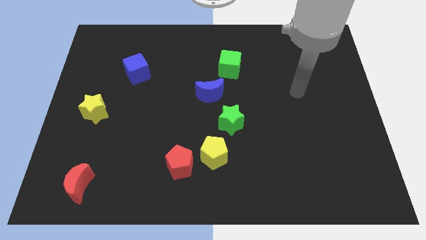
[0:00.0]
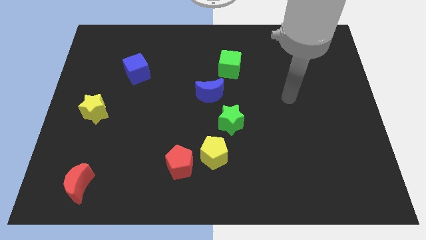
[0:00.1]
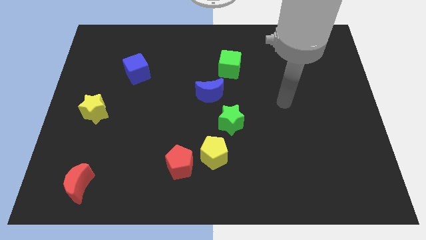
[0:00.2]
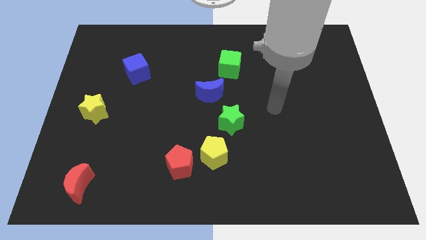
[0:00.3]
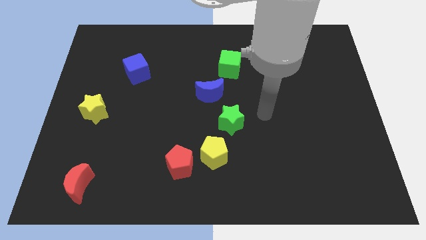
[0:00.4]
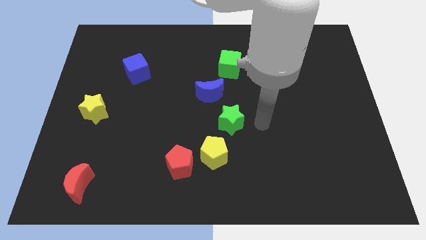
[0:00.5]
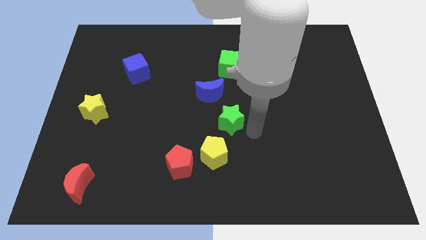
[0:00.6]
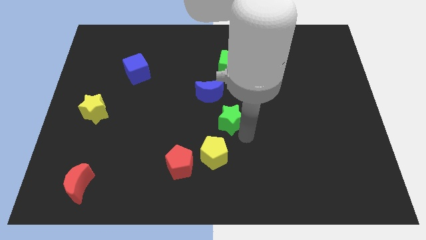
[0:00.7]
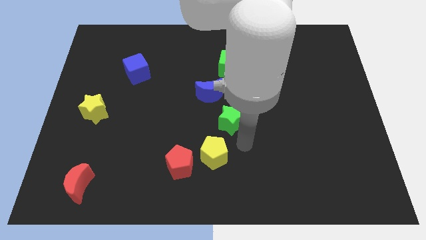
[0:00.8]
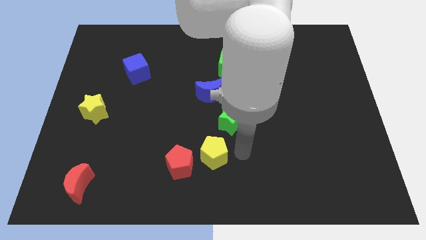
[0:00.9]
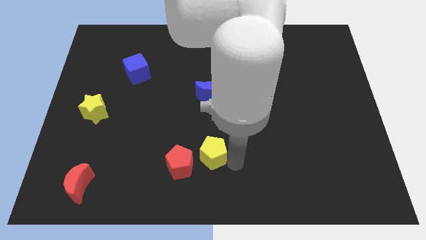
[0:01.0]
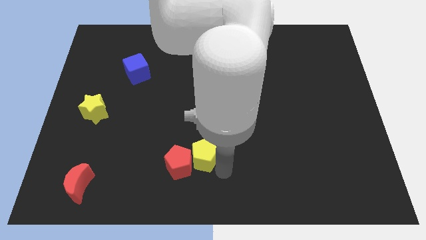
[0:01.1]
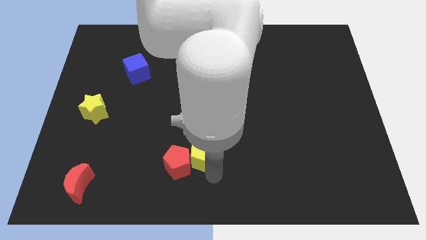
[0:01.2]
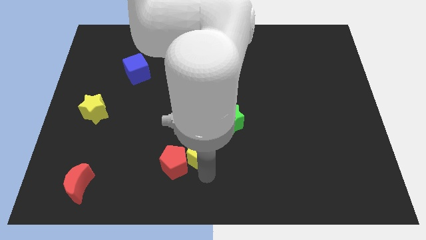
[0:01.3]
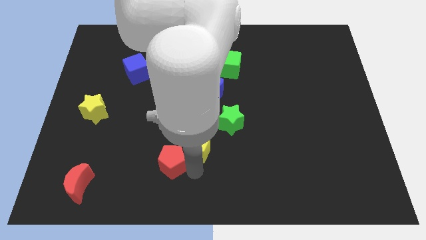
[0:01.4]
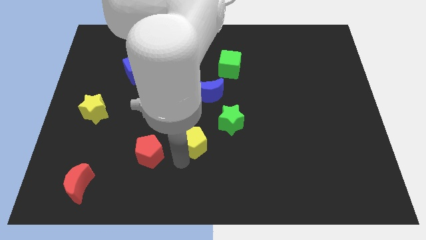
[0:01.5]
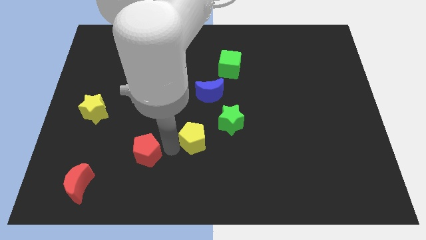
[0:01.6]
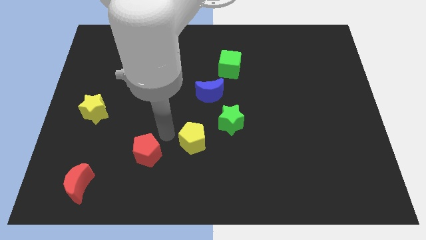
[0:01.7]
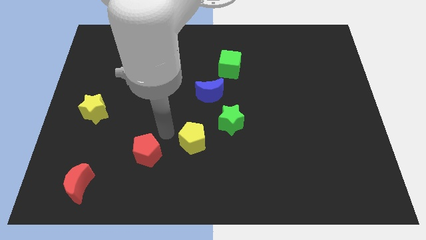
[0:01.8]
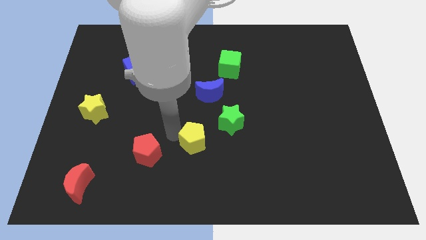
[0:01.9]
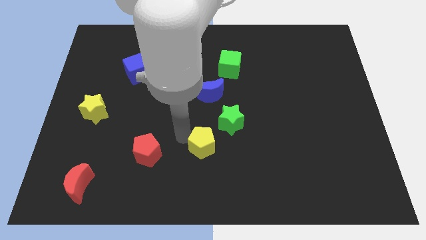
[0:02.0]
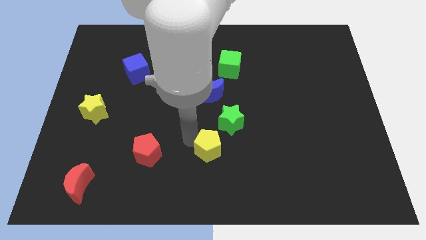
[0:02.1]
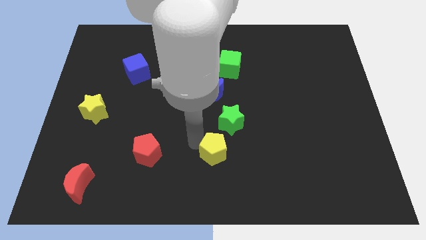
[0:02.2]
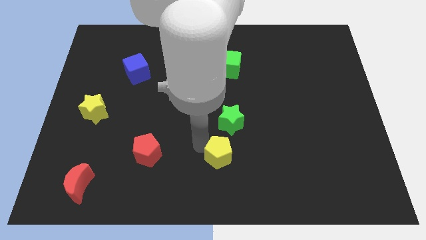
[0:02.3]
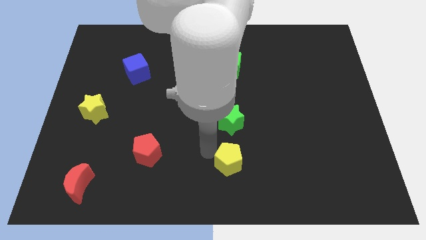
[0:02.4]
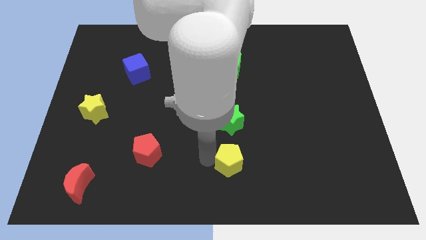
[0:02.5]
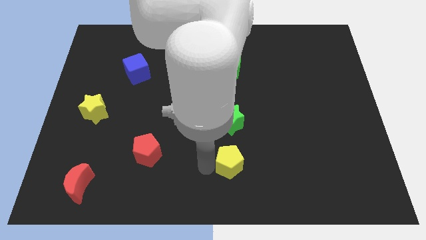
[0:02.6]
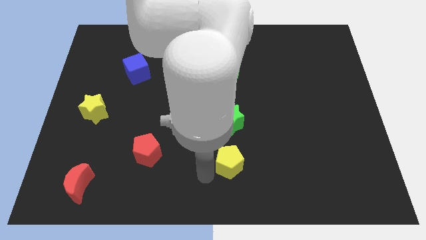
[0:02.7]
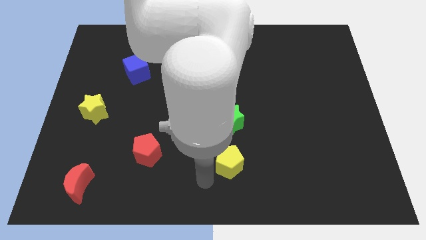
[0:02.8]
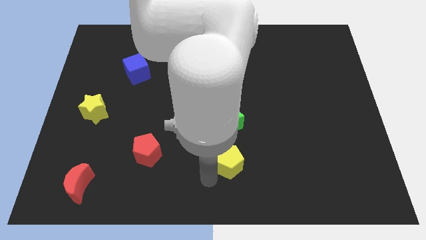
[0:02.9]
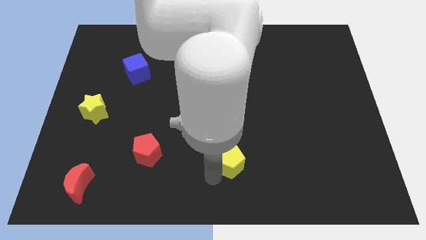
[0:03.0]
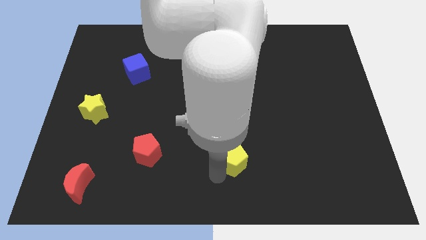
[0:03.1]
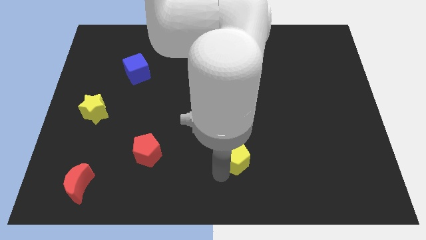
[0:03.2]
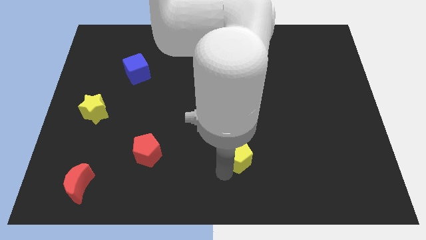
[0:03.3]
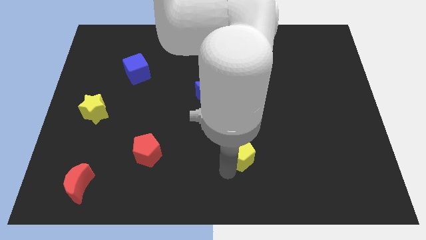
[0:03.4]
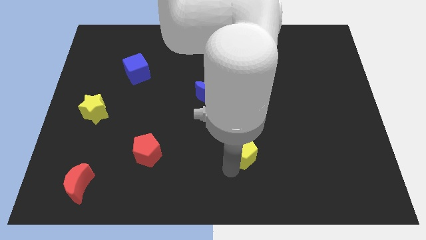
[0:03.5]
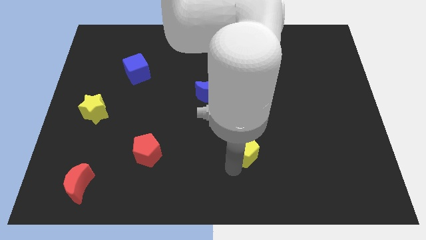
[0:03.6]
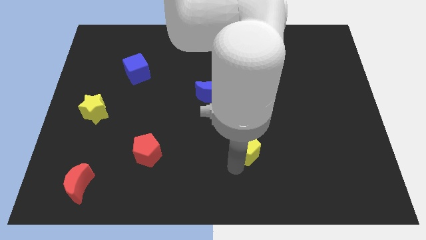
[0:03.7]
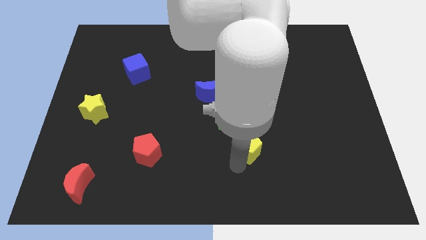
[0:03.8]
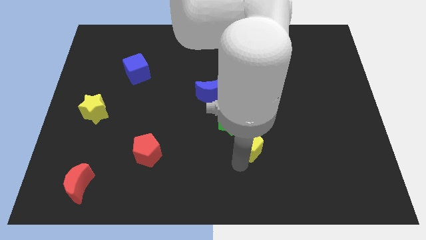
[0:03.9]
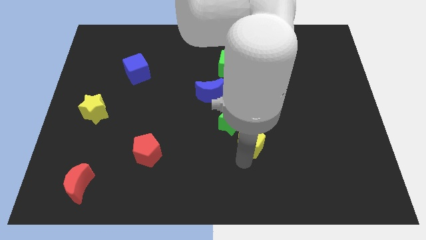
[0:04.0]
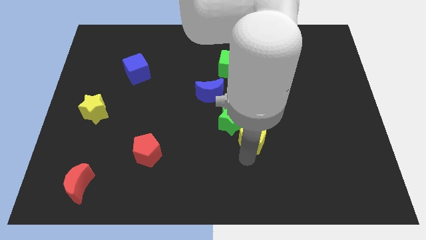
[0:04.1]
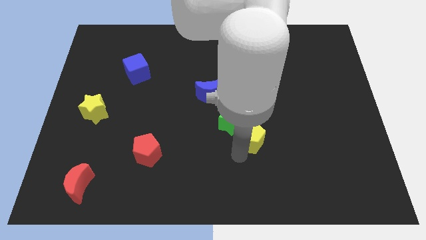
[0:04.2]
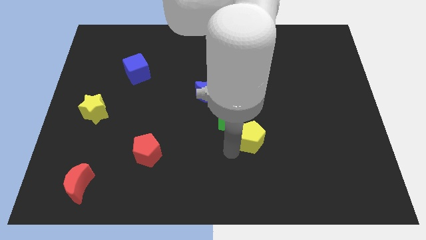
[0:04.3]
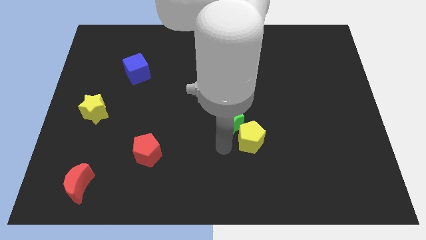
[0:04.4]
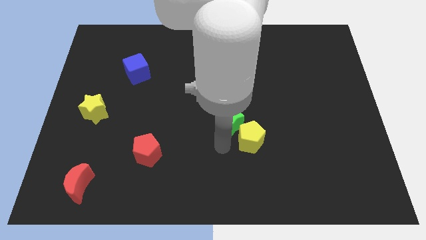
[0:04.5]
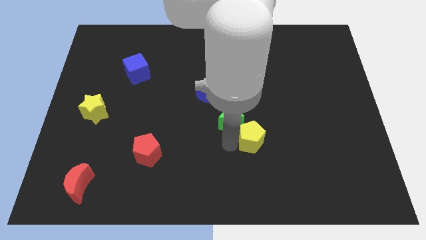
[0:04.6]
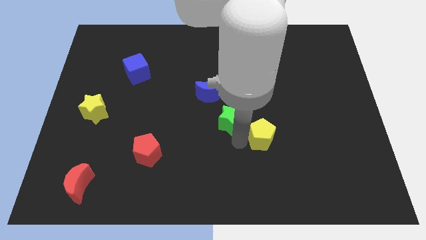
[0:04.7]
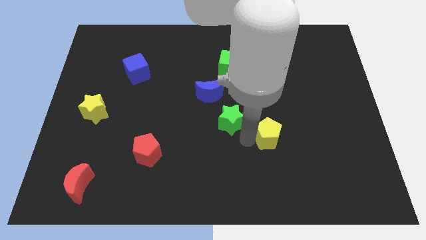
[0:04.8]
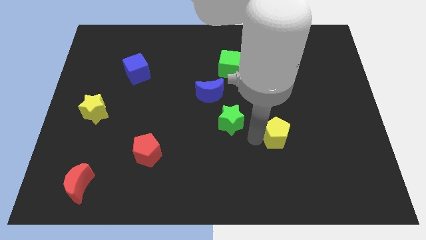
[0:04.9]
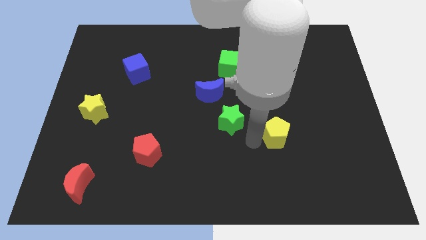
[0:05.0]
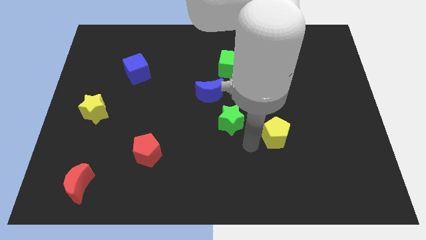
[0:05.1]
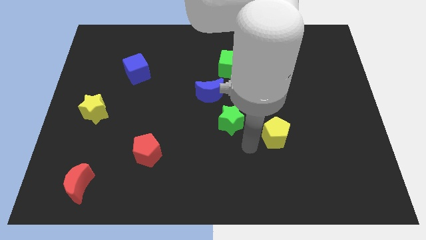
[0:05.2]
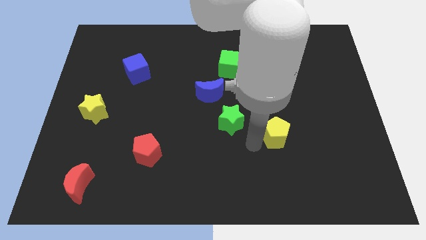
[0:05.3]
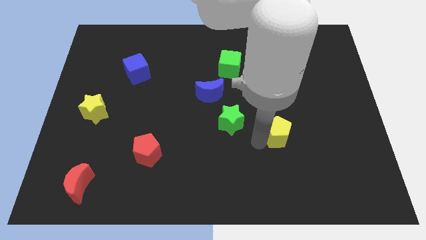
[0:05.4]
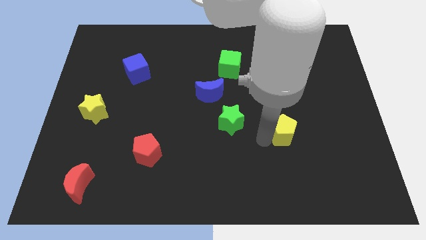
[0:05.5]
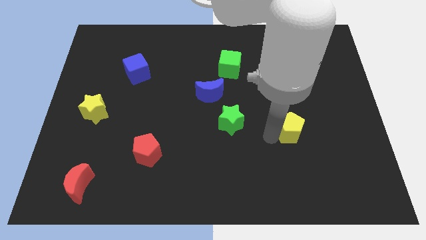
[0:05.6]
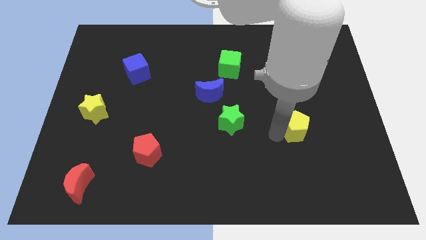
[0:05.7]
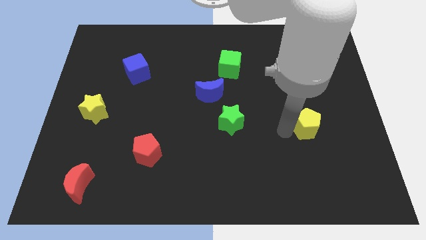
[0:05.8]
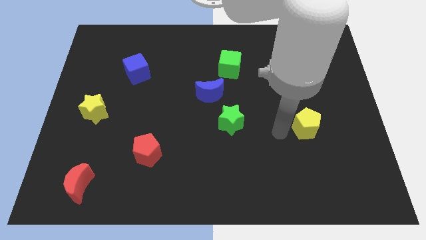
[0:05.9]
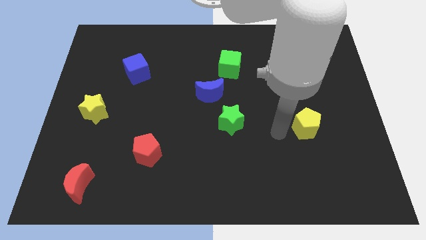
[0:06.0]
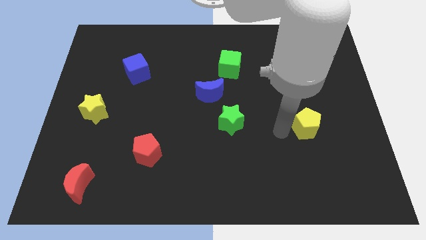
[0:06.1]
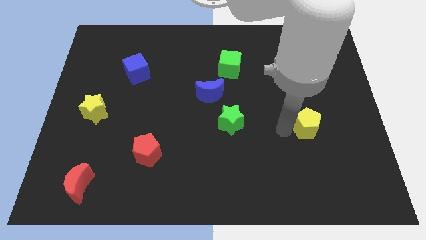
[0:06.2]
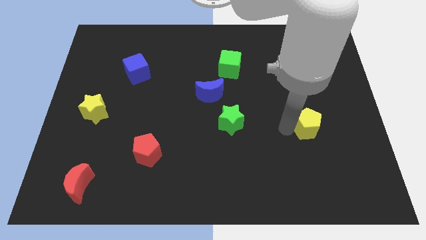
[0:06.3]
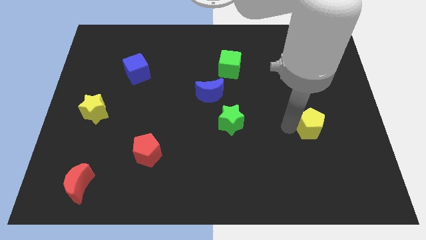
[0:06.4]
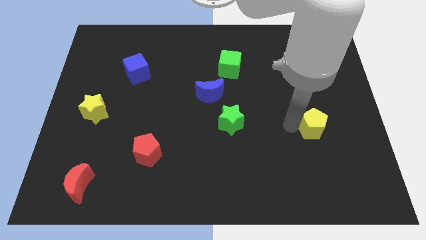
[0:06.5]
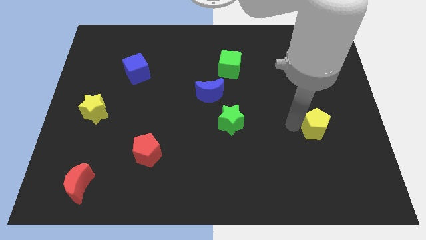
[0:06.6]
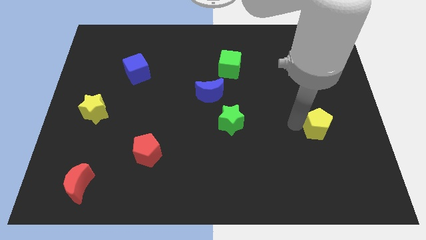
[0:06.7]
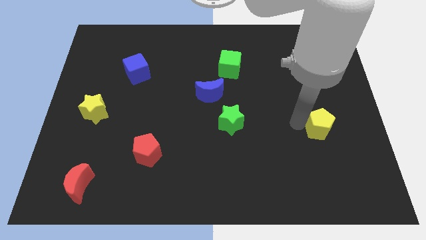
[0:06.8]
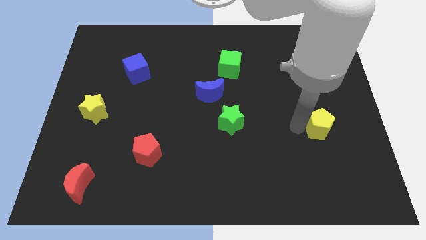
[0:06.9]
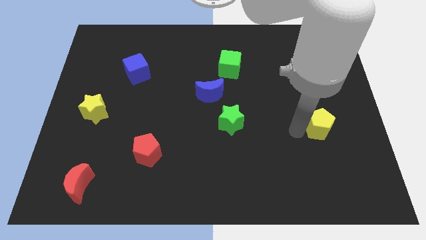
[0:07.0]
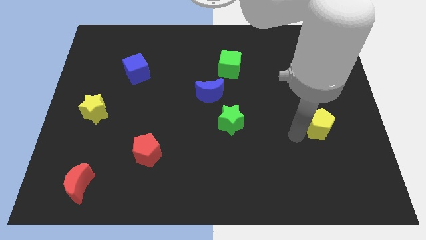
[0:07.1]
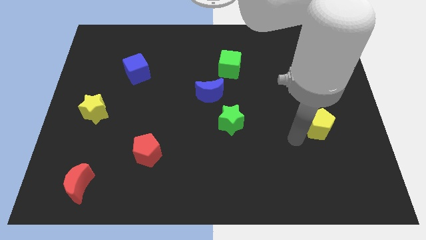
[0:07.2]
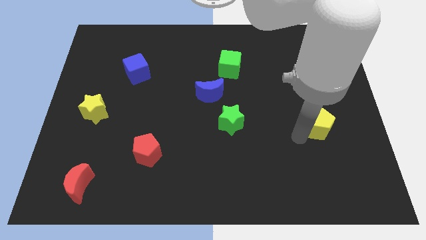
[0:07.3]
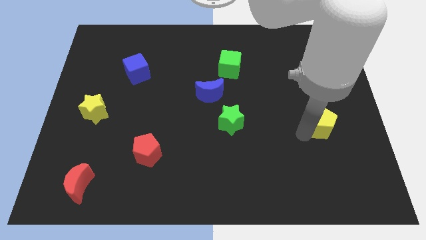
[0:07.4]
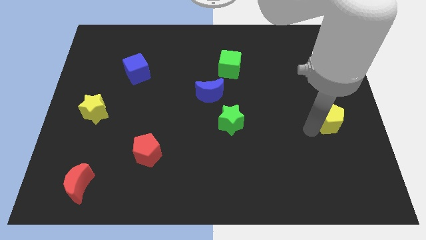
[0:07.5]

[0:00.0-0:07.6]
slide the yellow pentagon to the right side

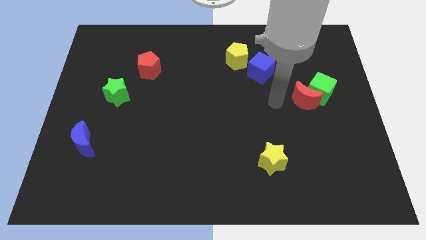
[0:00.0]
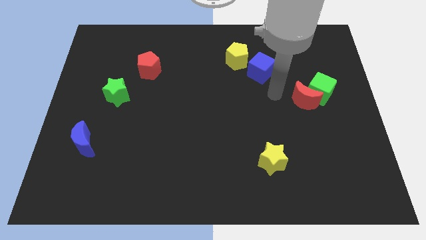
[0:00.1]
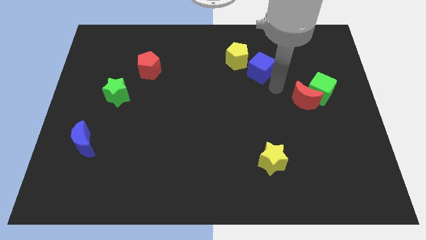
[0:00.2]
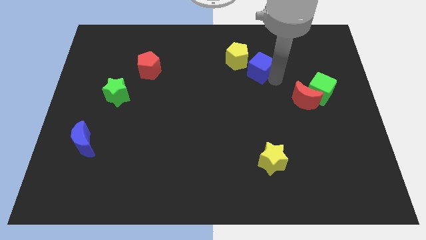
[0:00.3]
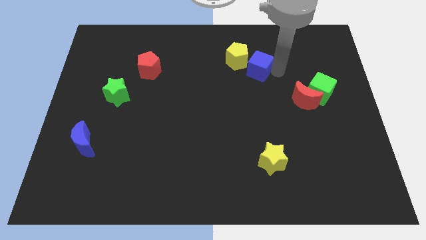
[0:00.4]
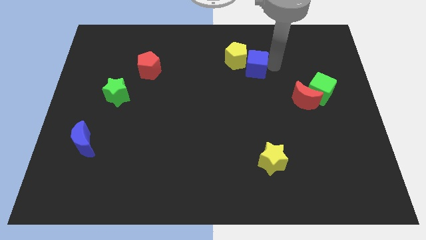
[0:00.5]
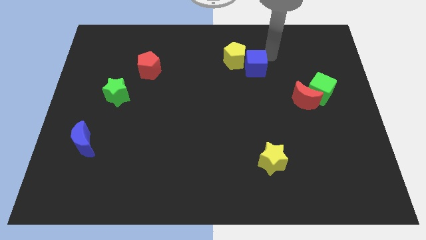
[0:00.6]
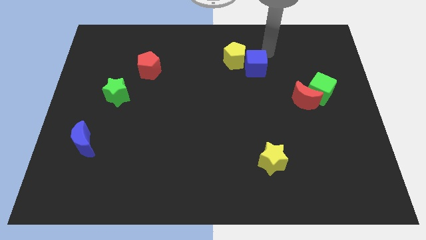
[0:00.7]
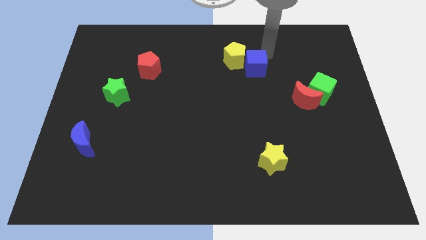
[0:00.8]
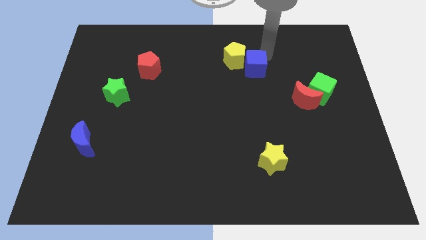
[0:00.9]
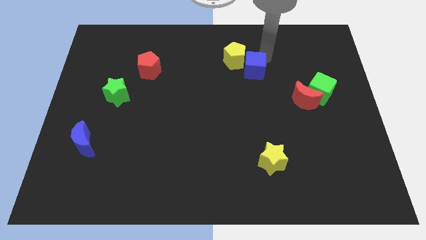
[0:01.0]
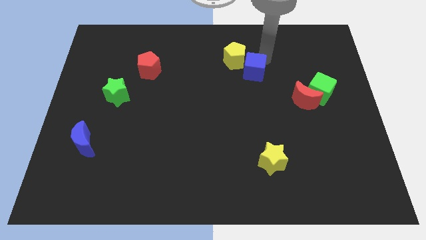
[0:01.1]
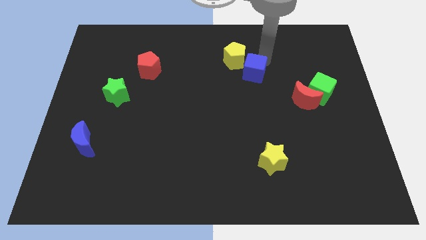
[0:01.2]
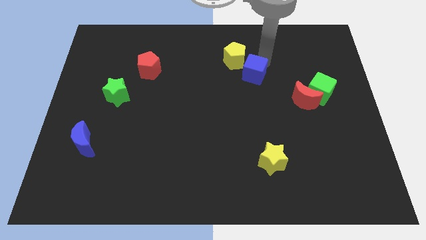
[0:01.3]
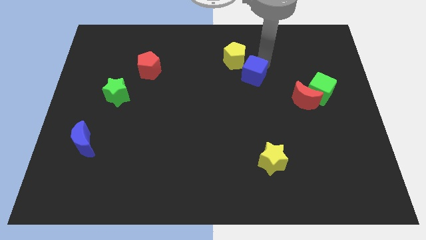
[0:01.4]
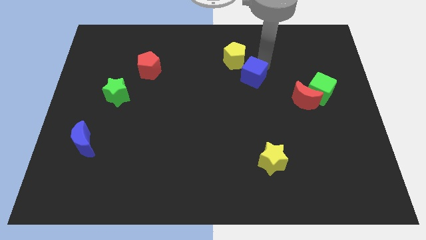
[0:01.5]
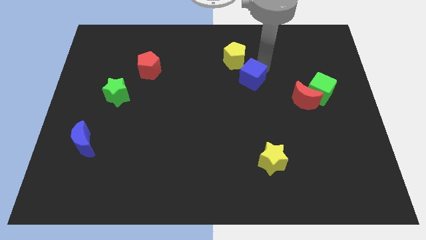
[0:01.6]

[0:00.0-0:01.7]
push the blue cube to the center of the board
